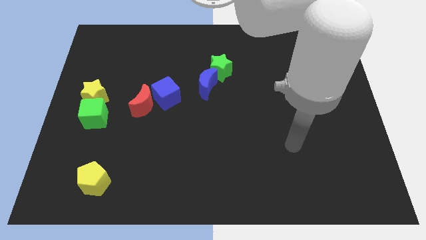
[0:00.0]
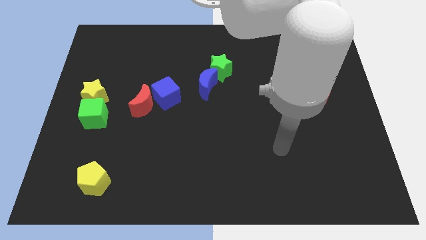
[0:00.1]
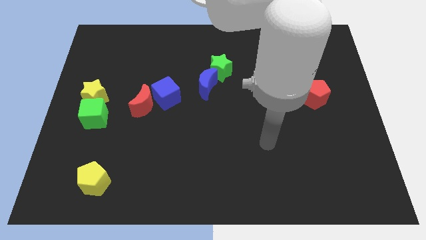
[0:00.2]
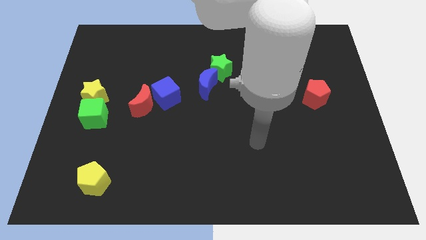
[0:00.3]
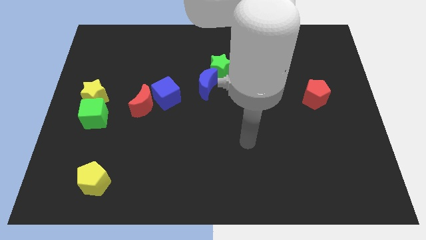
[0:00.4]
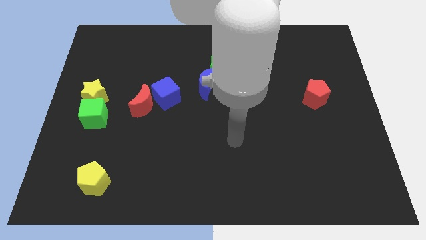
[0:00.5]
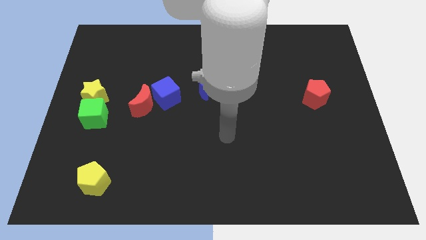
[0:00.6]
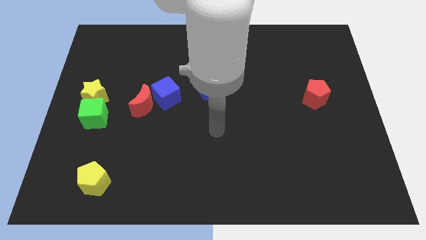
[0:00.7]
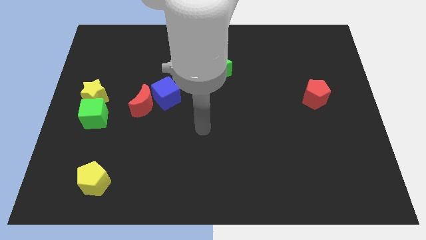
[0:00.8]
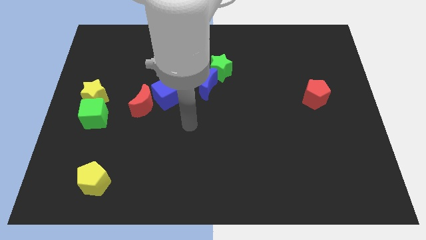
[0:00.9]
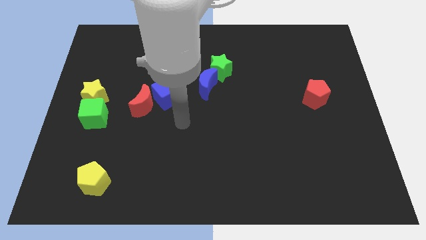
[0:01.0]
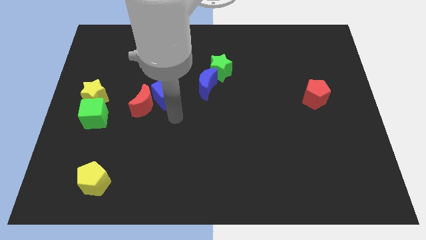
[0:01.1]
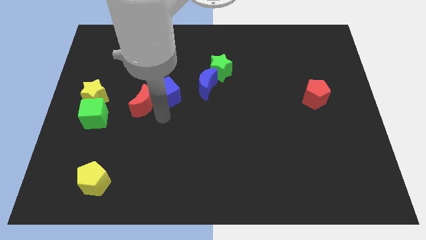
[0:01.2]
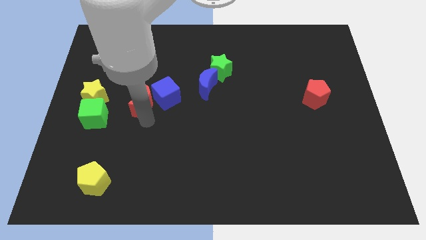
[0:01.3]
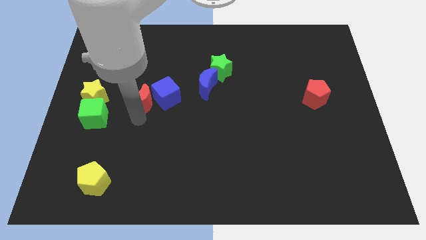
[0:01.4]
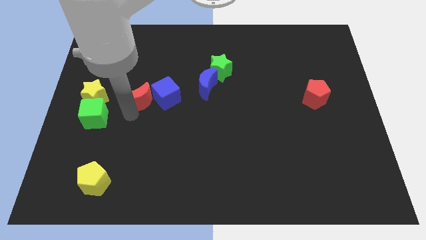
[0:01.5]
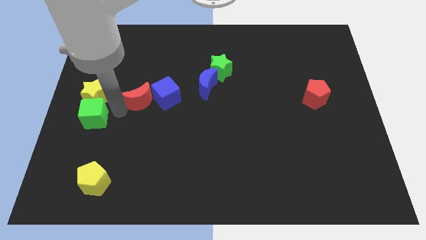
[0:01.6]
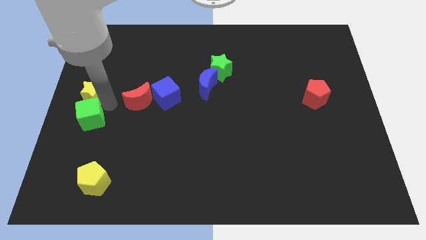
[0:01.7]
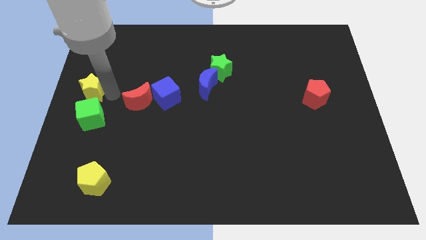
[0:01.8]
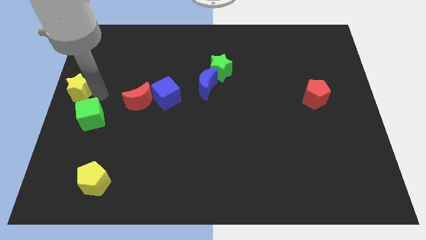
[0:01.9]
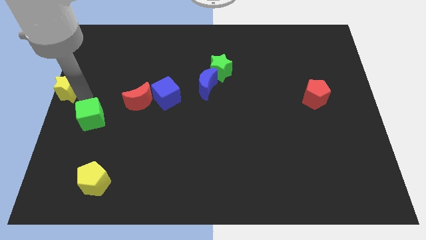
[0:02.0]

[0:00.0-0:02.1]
separate the green cube from the yellow star

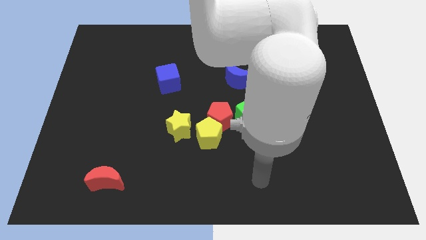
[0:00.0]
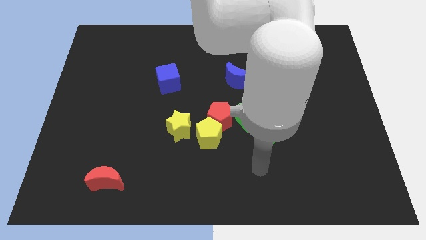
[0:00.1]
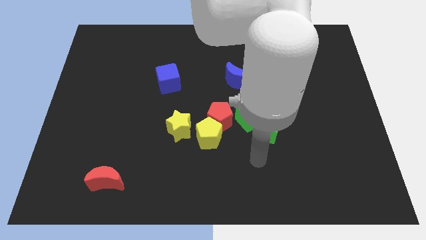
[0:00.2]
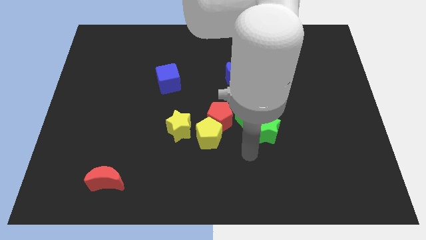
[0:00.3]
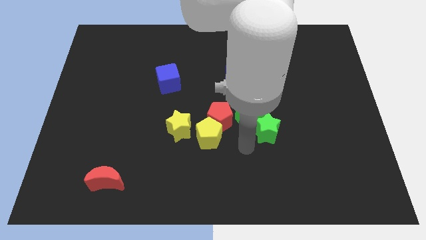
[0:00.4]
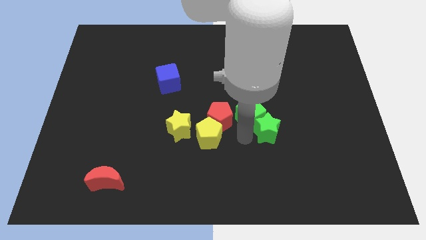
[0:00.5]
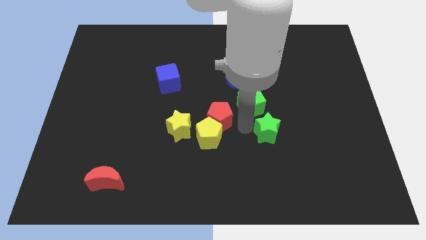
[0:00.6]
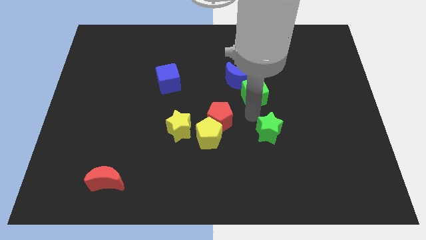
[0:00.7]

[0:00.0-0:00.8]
move the green star away from the green cube

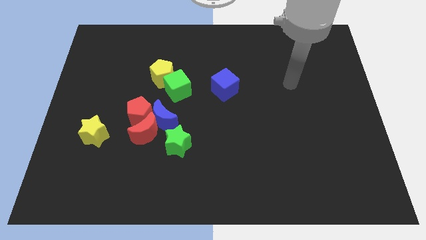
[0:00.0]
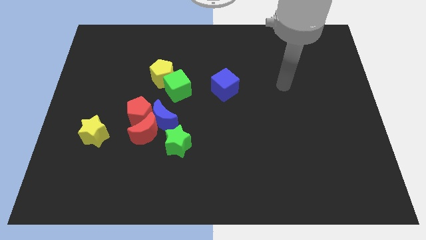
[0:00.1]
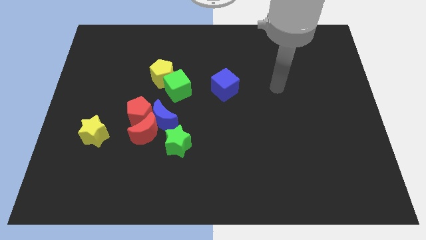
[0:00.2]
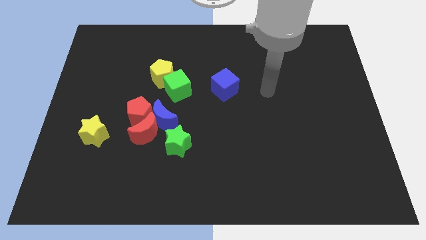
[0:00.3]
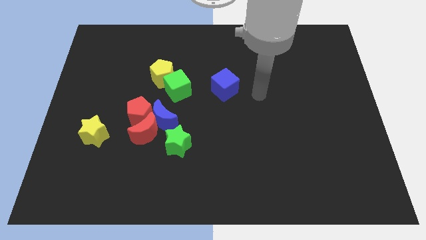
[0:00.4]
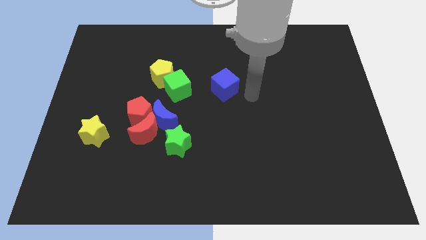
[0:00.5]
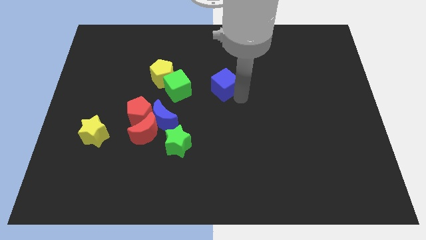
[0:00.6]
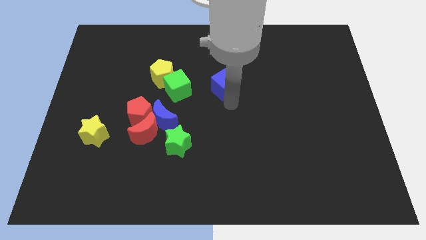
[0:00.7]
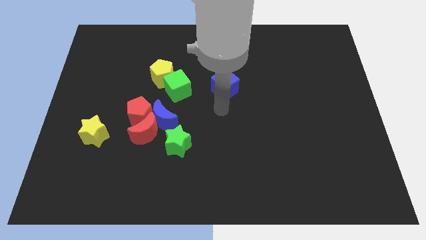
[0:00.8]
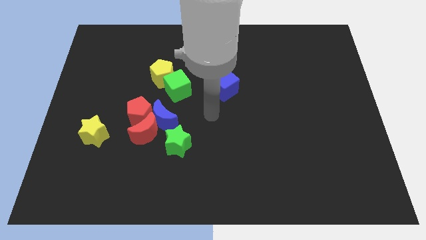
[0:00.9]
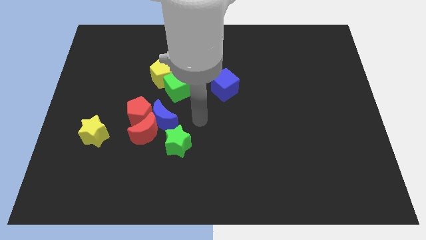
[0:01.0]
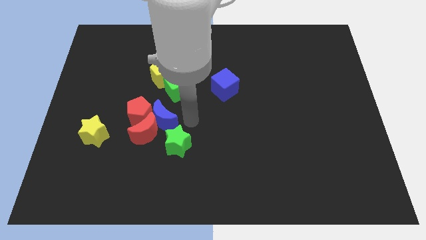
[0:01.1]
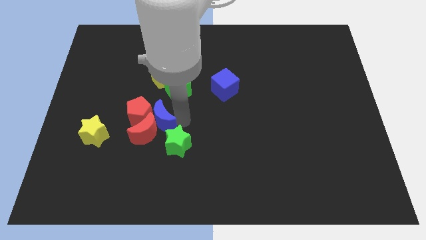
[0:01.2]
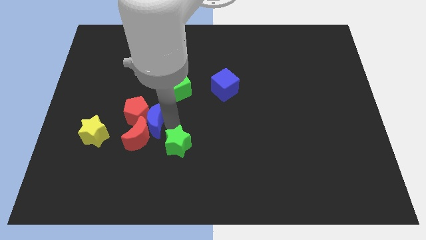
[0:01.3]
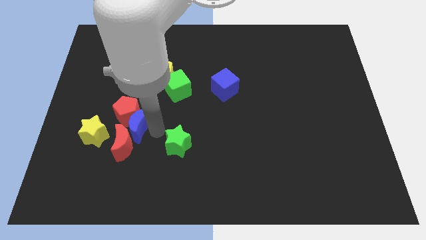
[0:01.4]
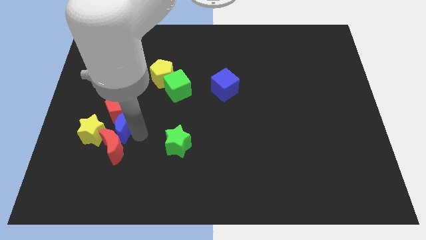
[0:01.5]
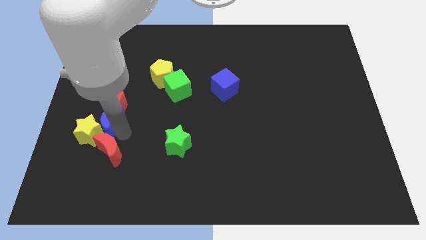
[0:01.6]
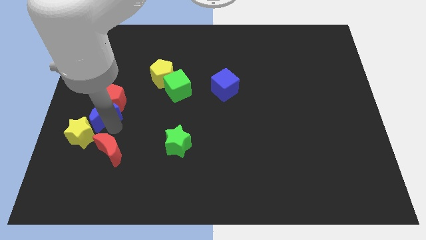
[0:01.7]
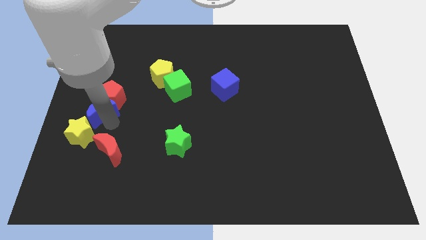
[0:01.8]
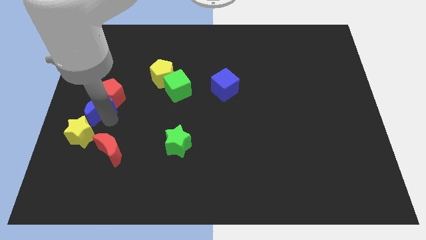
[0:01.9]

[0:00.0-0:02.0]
separate the red pentagon from the red moon and blue moon

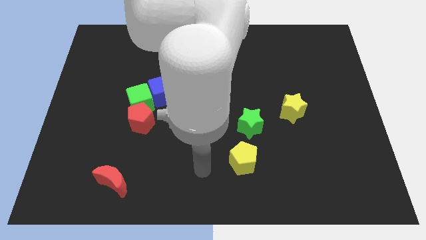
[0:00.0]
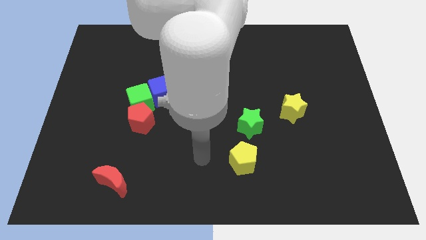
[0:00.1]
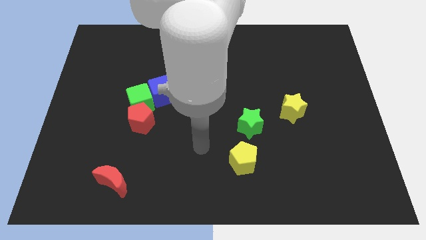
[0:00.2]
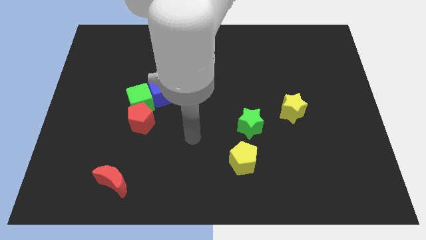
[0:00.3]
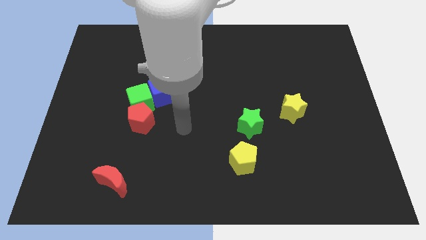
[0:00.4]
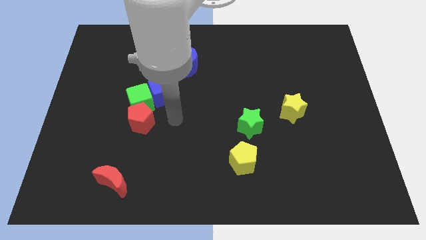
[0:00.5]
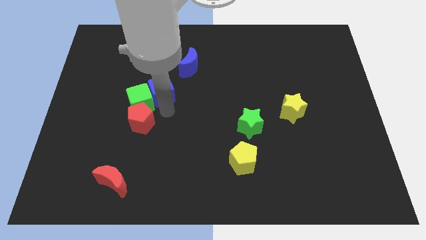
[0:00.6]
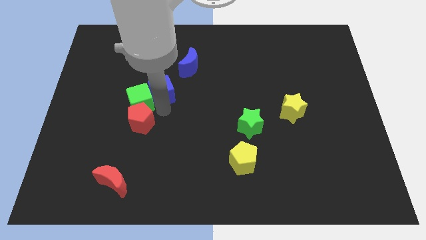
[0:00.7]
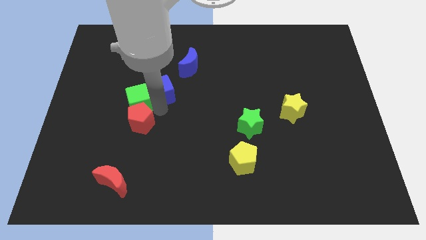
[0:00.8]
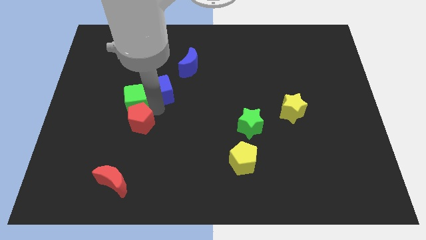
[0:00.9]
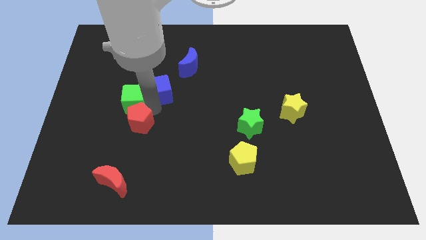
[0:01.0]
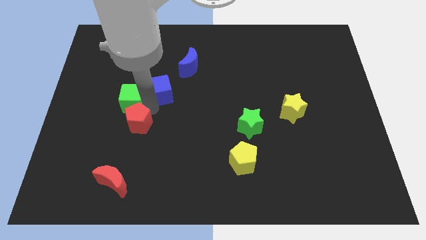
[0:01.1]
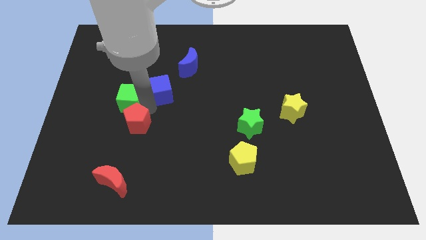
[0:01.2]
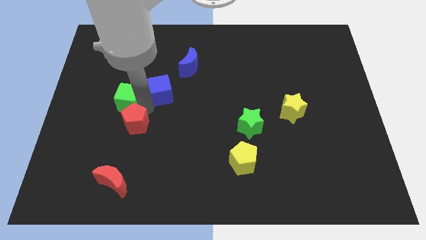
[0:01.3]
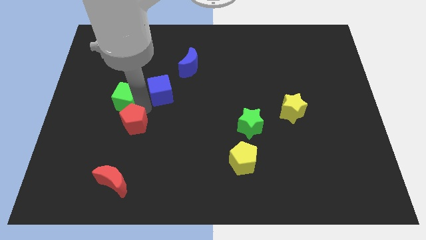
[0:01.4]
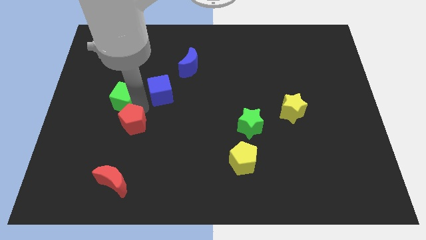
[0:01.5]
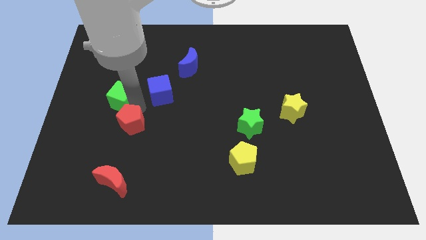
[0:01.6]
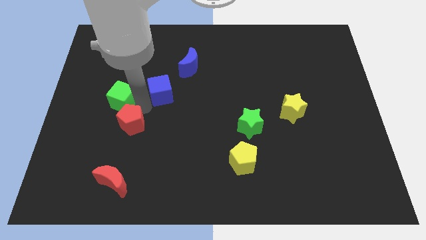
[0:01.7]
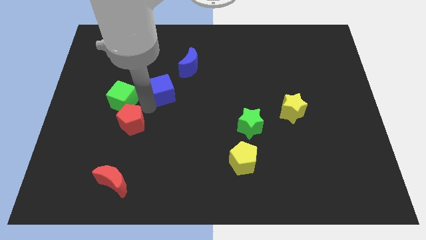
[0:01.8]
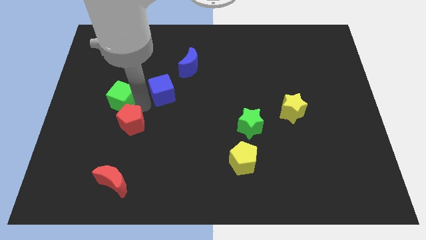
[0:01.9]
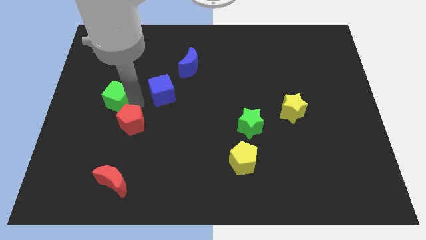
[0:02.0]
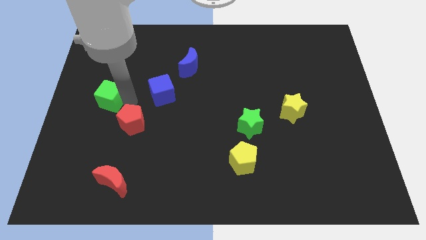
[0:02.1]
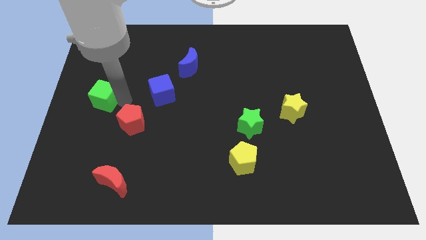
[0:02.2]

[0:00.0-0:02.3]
move the green cube away from the red pentagon and blue cube

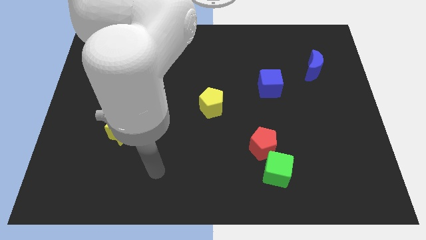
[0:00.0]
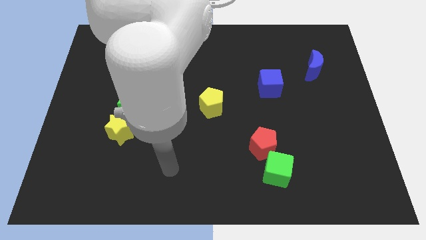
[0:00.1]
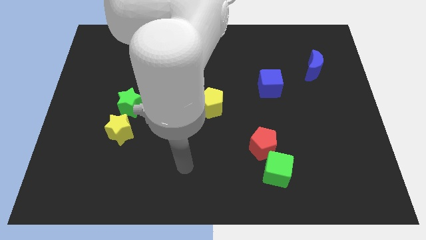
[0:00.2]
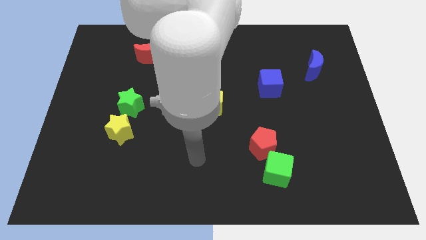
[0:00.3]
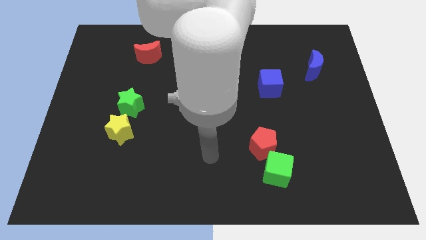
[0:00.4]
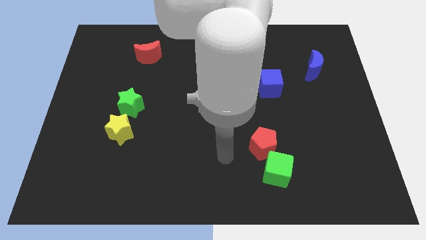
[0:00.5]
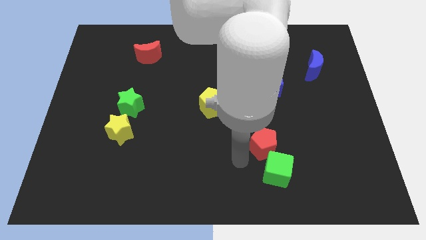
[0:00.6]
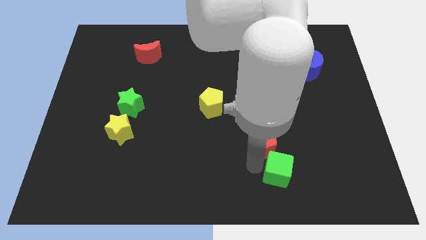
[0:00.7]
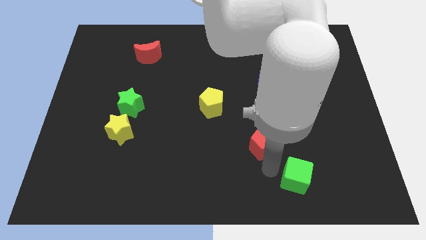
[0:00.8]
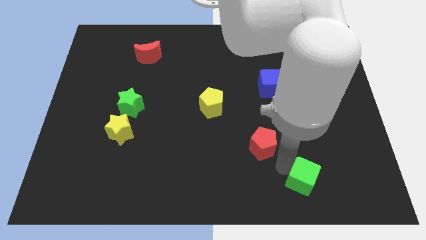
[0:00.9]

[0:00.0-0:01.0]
pull the red pentagon apart from the green cube

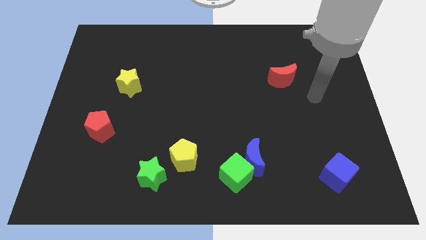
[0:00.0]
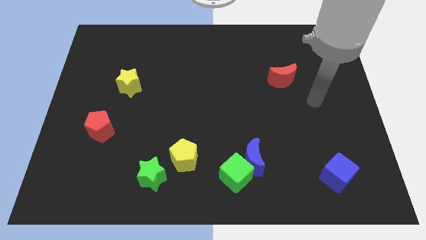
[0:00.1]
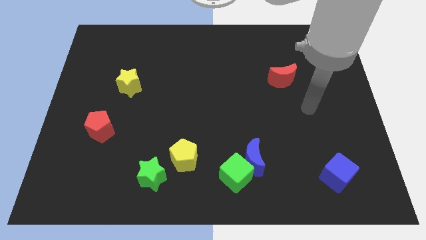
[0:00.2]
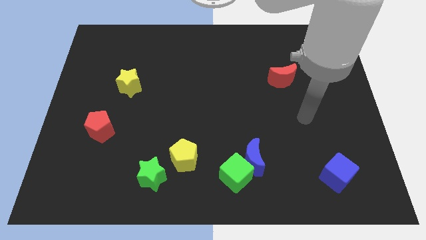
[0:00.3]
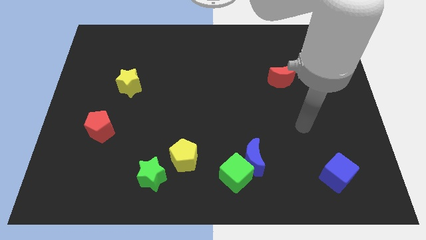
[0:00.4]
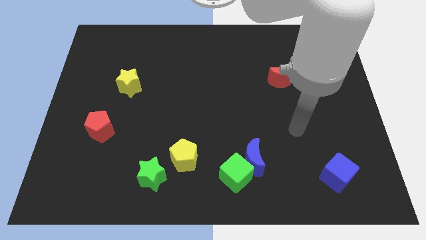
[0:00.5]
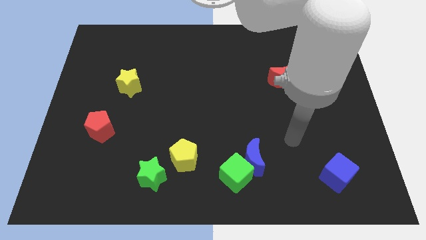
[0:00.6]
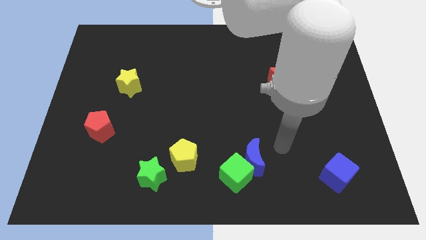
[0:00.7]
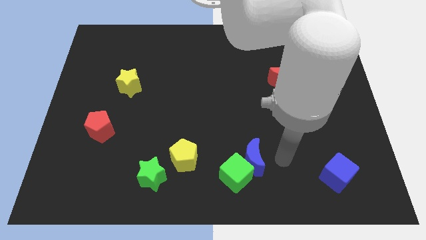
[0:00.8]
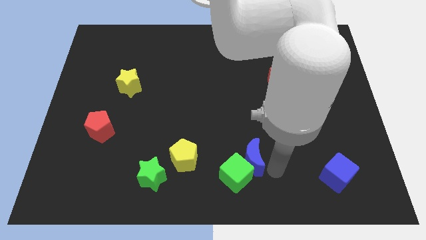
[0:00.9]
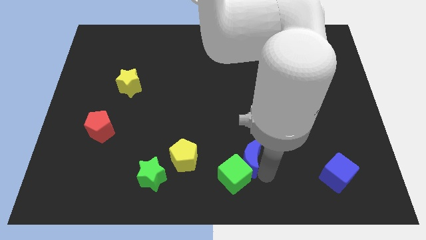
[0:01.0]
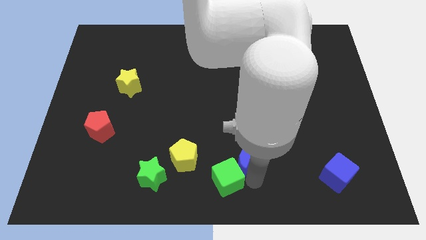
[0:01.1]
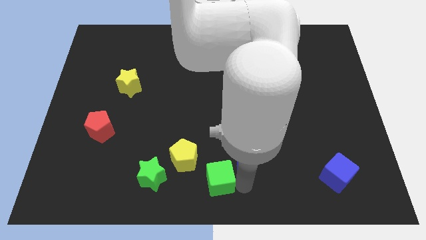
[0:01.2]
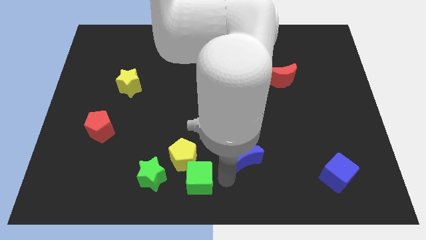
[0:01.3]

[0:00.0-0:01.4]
pull the blue moon apart from the green cube
